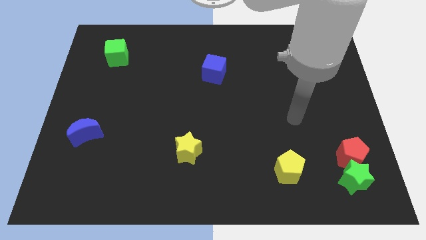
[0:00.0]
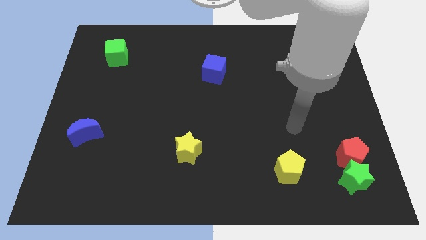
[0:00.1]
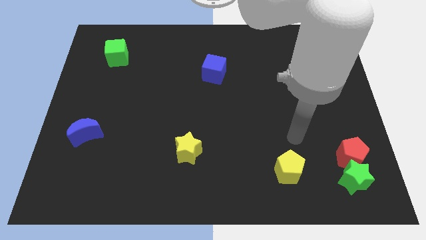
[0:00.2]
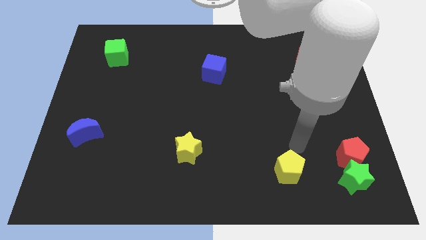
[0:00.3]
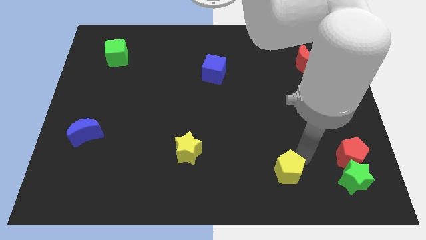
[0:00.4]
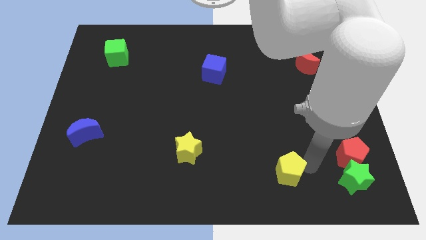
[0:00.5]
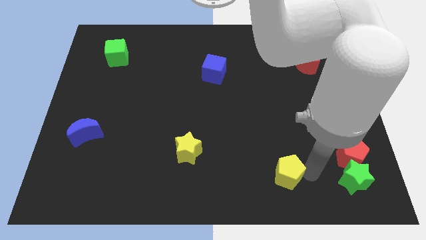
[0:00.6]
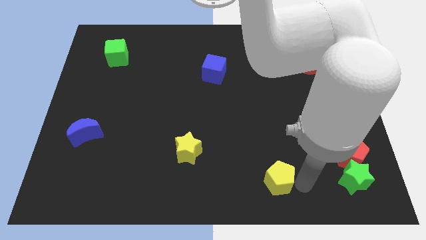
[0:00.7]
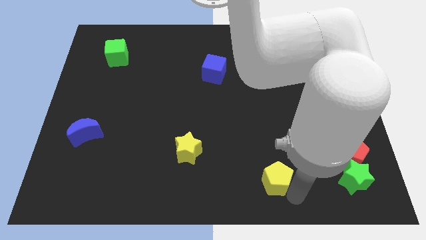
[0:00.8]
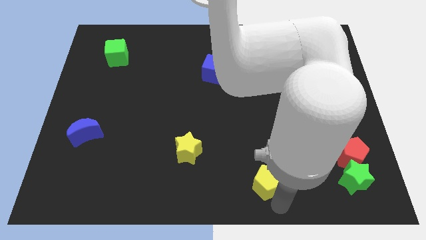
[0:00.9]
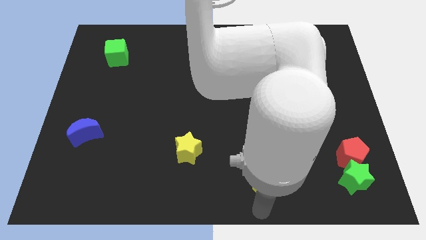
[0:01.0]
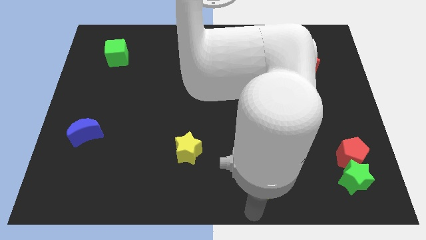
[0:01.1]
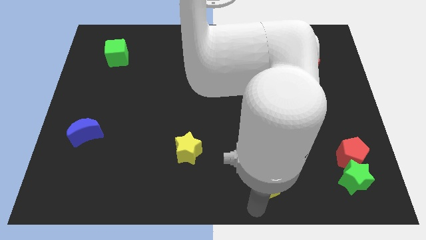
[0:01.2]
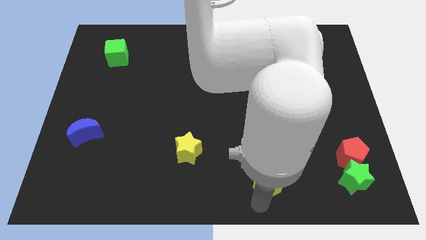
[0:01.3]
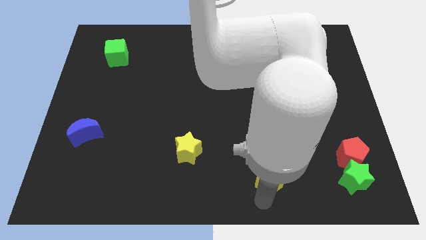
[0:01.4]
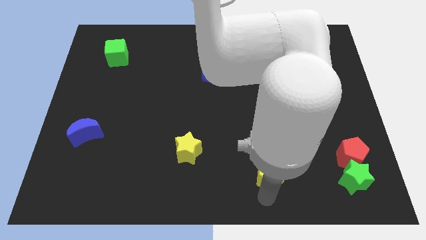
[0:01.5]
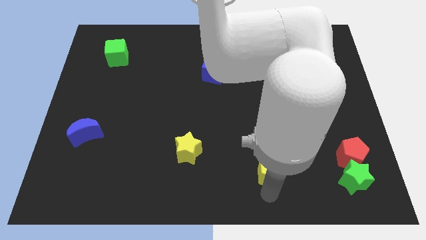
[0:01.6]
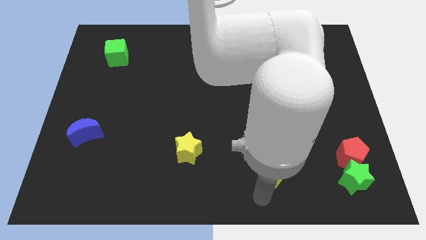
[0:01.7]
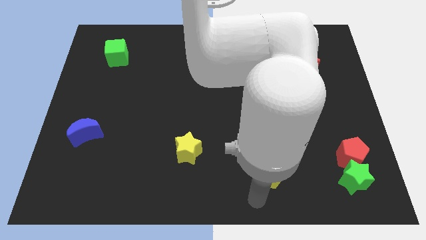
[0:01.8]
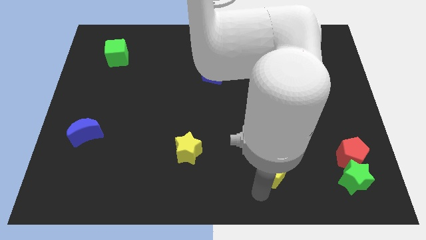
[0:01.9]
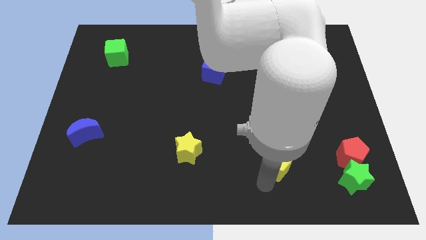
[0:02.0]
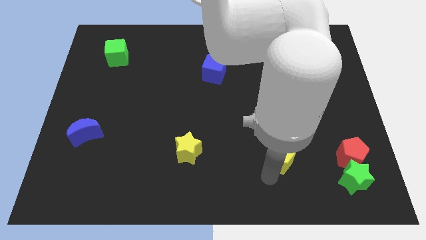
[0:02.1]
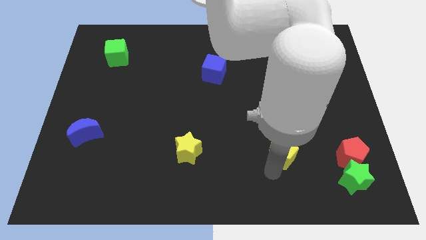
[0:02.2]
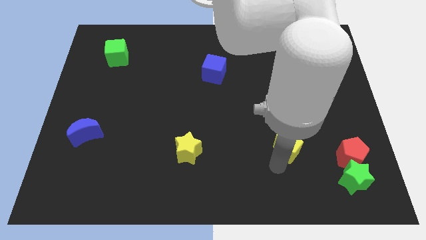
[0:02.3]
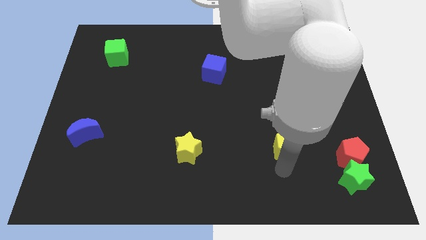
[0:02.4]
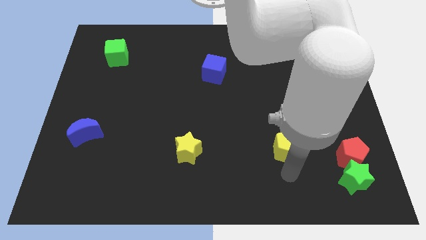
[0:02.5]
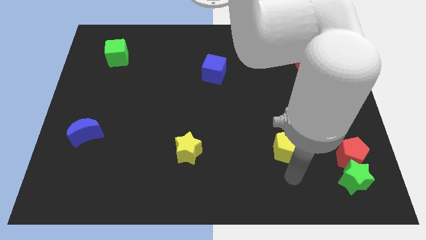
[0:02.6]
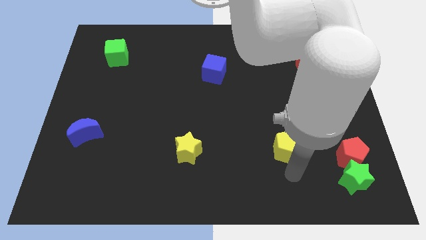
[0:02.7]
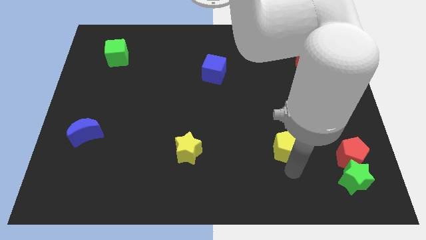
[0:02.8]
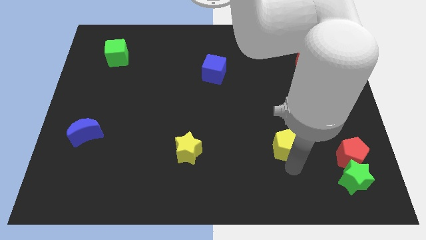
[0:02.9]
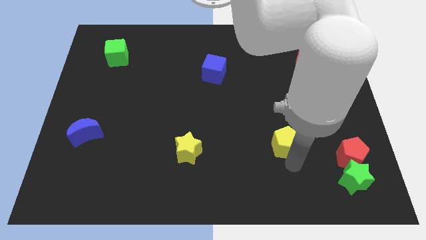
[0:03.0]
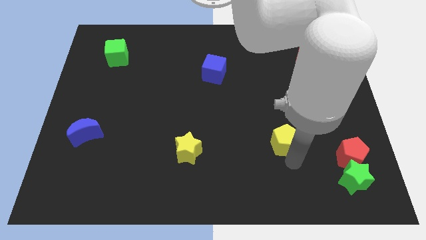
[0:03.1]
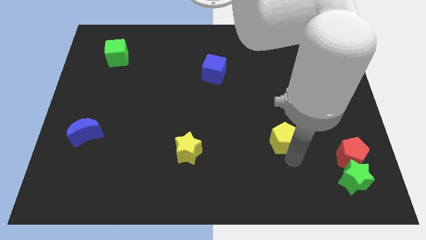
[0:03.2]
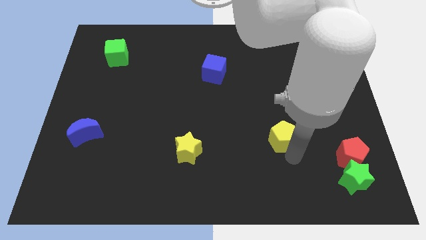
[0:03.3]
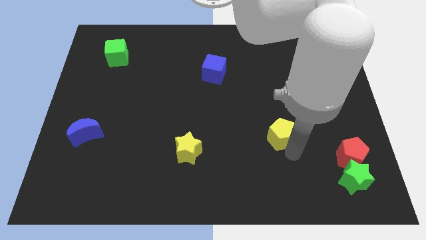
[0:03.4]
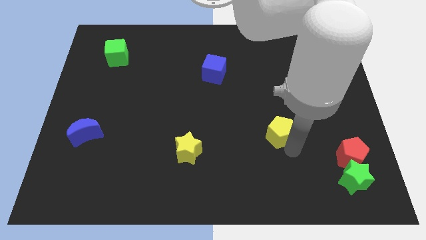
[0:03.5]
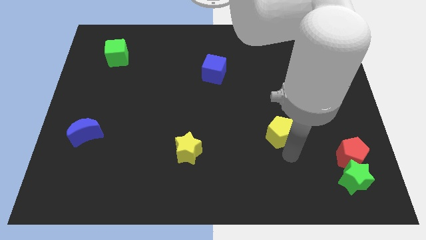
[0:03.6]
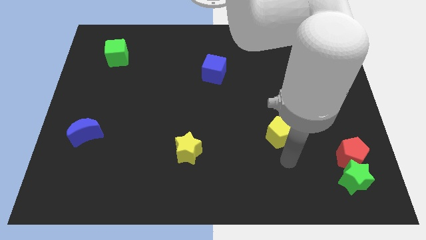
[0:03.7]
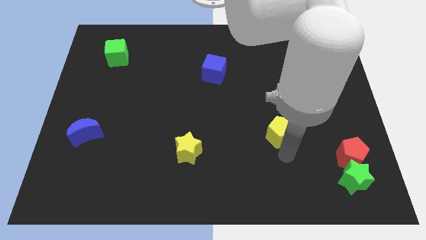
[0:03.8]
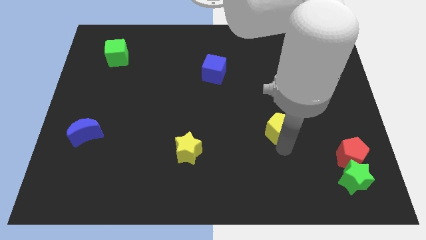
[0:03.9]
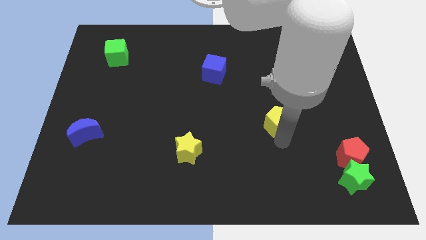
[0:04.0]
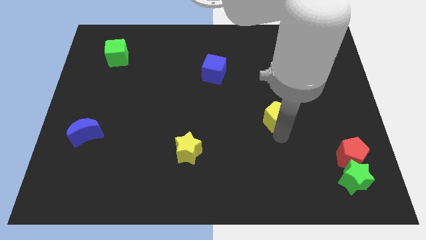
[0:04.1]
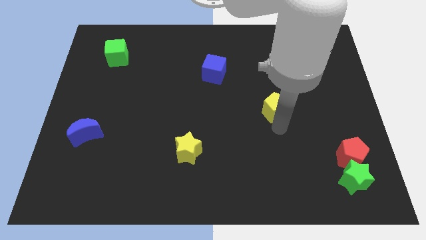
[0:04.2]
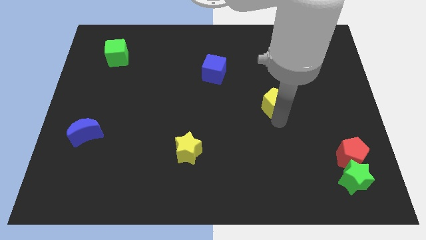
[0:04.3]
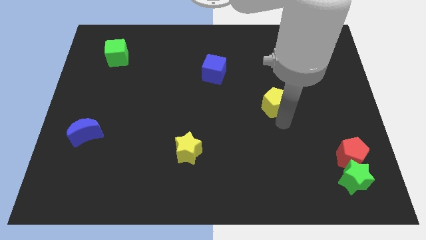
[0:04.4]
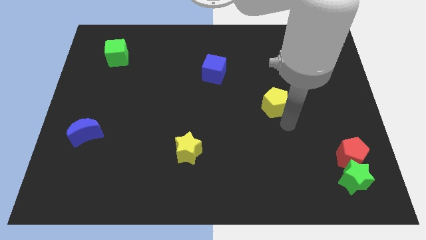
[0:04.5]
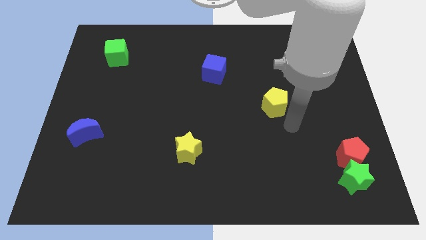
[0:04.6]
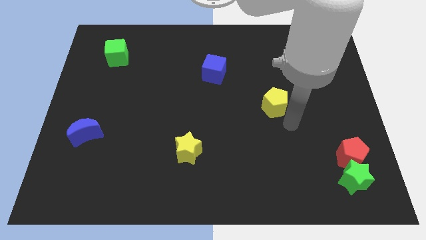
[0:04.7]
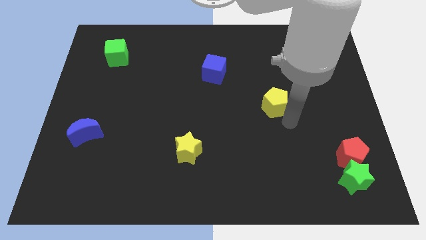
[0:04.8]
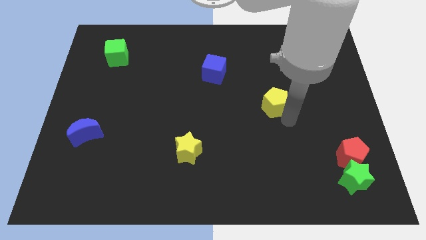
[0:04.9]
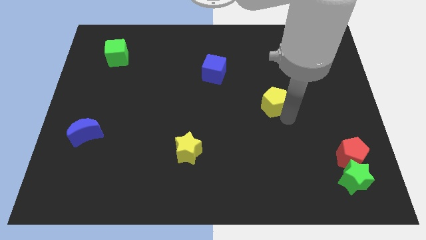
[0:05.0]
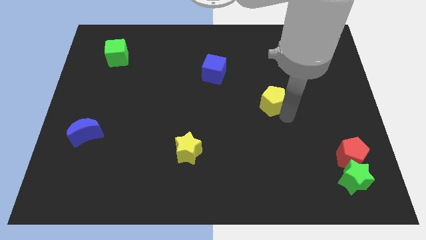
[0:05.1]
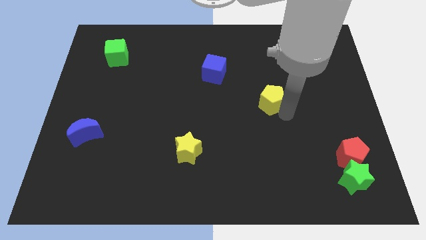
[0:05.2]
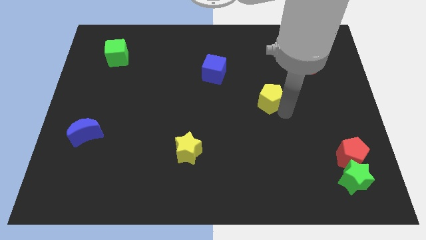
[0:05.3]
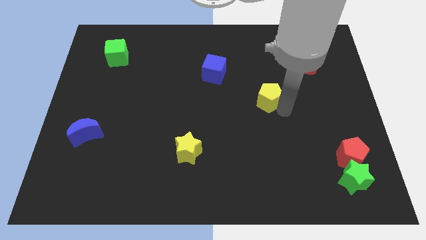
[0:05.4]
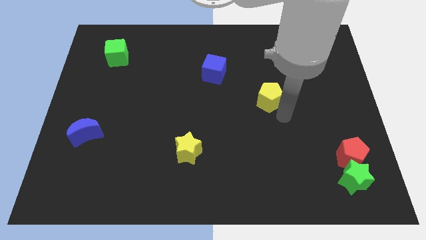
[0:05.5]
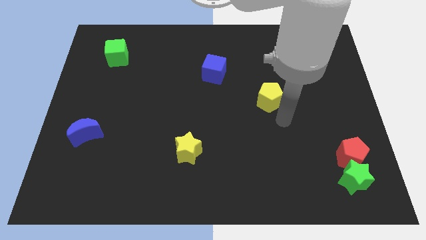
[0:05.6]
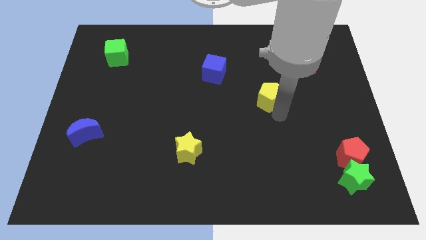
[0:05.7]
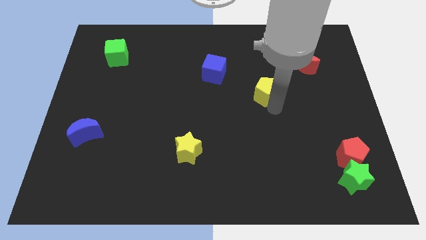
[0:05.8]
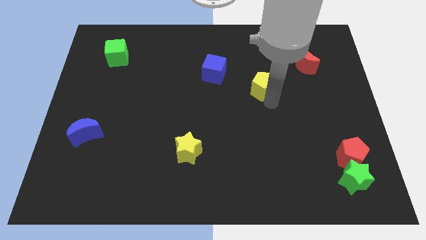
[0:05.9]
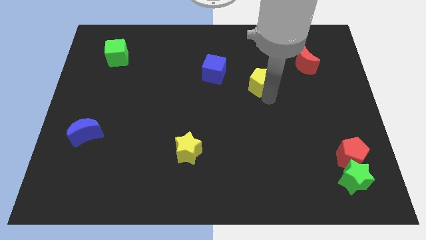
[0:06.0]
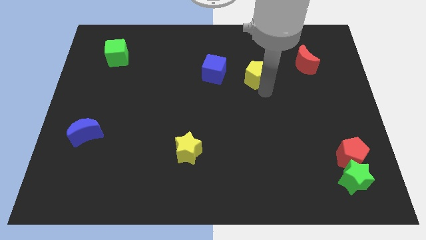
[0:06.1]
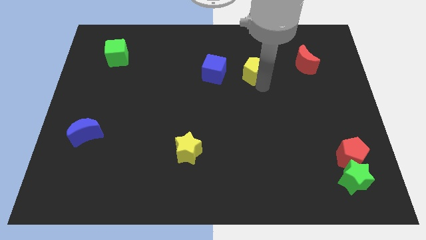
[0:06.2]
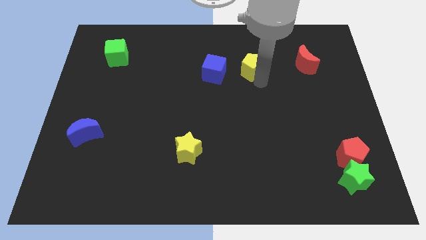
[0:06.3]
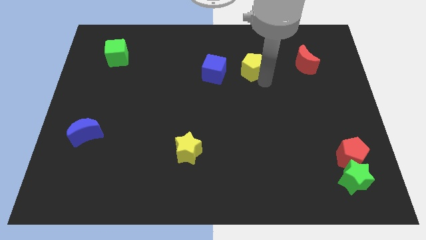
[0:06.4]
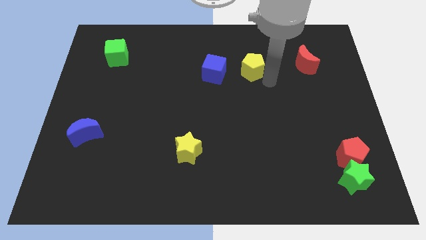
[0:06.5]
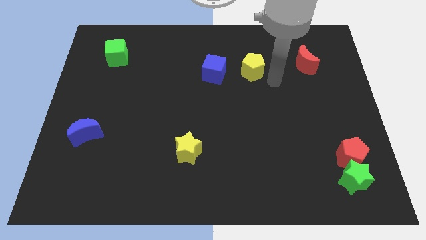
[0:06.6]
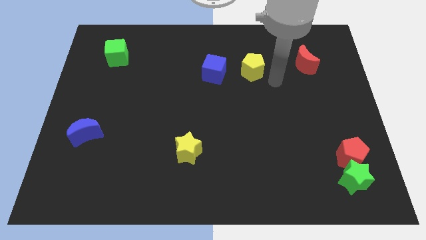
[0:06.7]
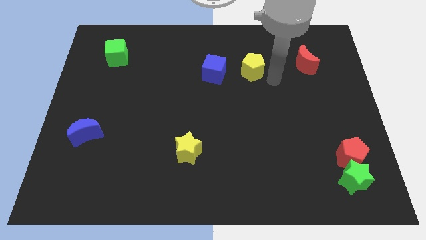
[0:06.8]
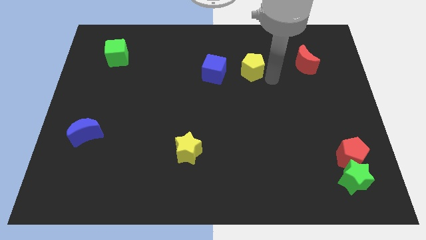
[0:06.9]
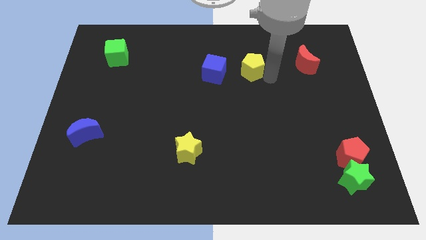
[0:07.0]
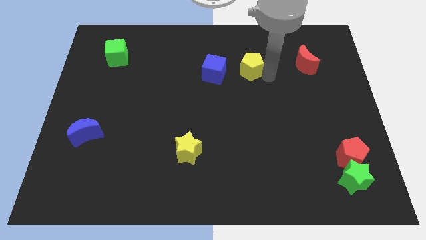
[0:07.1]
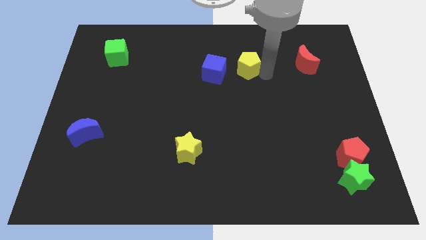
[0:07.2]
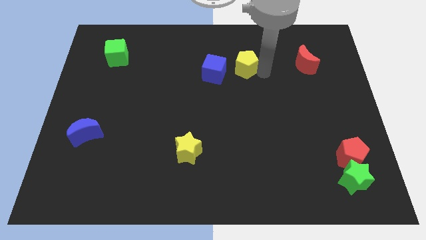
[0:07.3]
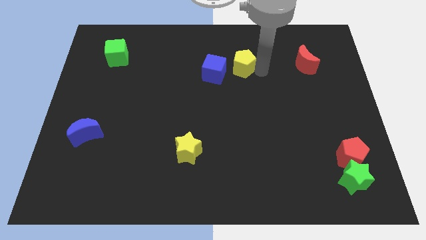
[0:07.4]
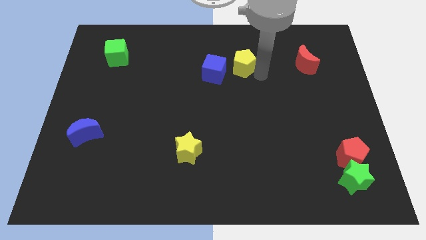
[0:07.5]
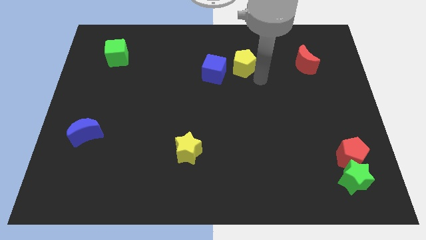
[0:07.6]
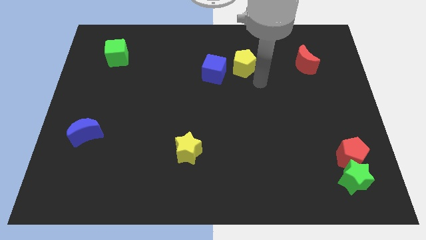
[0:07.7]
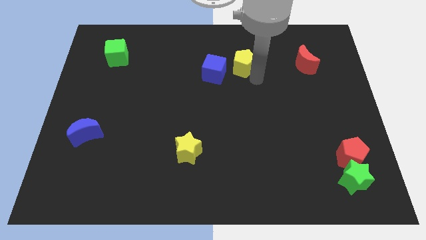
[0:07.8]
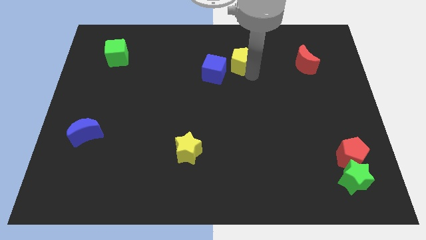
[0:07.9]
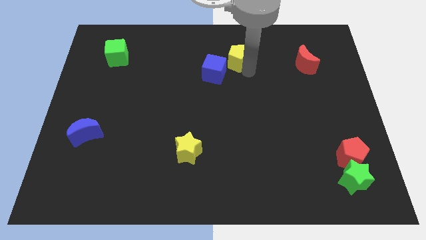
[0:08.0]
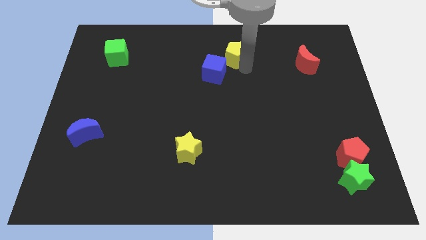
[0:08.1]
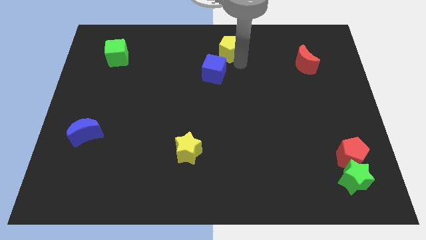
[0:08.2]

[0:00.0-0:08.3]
move the yellow pentagon to the towards your base
